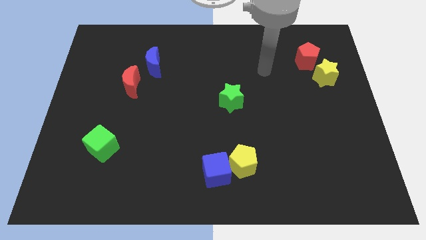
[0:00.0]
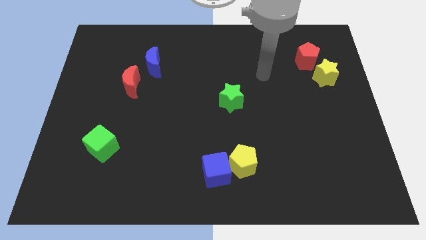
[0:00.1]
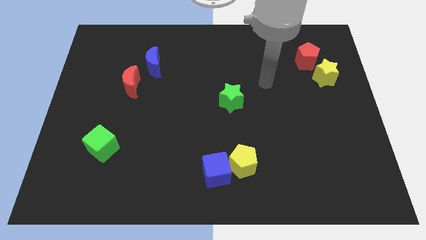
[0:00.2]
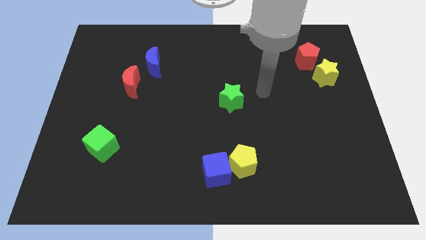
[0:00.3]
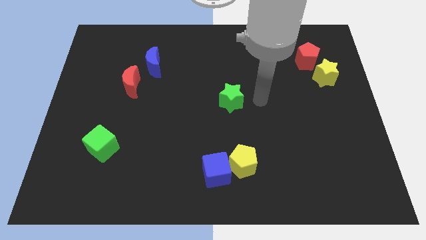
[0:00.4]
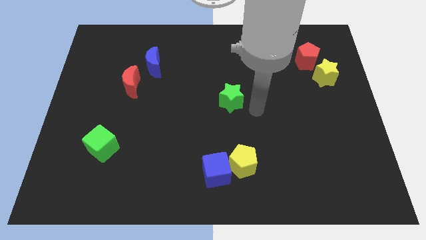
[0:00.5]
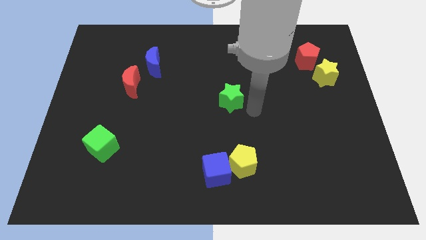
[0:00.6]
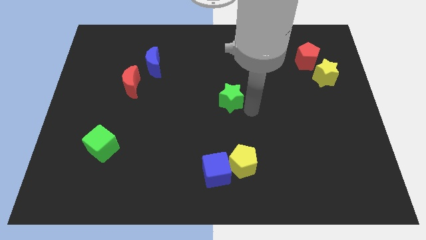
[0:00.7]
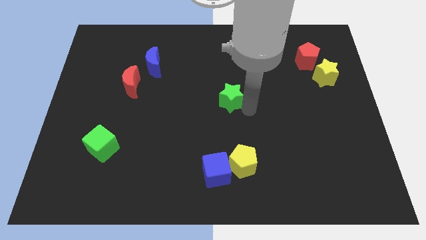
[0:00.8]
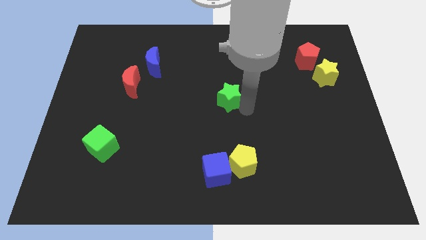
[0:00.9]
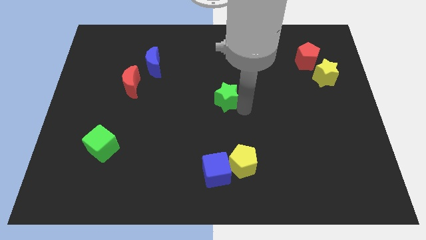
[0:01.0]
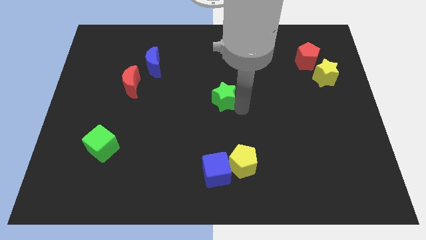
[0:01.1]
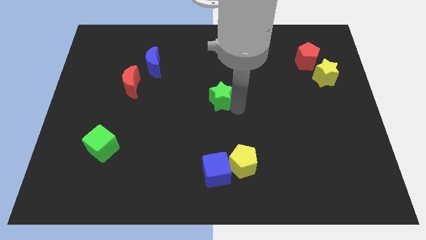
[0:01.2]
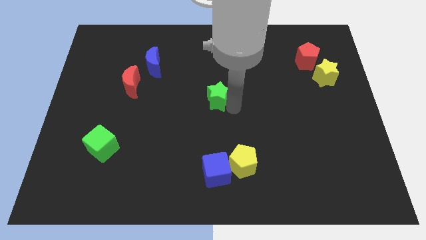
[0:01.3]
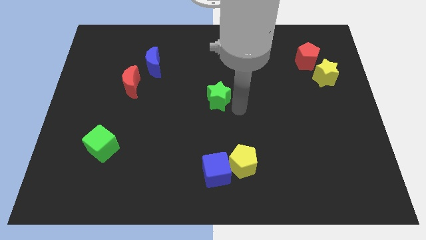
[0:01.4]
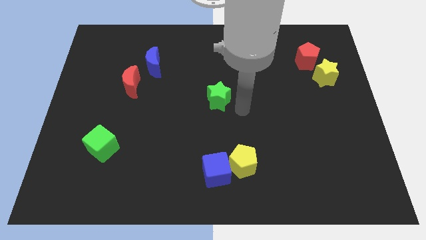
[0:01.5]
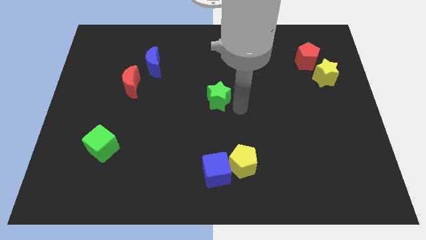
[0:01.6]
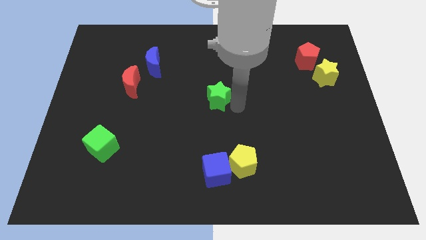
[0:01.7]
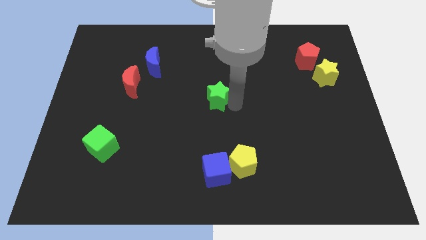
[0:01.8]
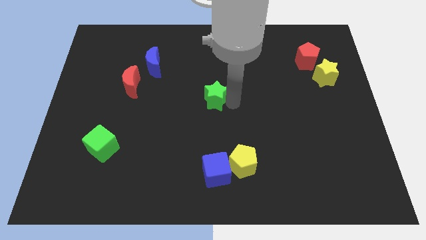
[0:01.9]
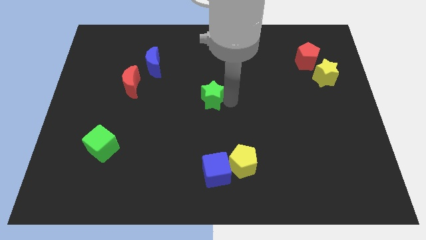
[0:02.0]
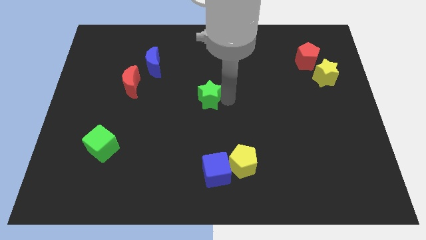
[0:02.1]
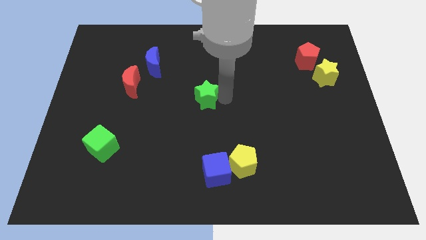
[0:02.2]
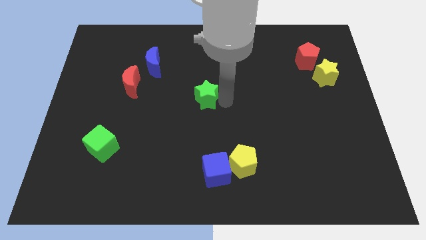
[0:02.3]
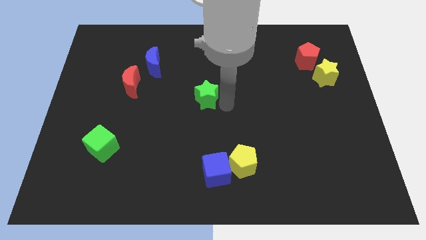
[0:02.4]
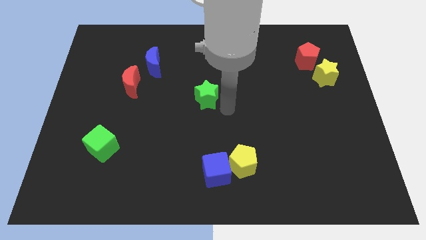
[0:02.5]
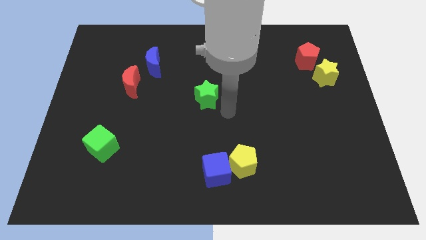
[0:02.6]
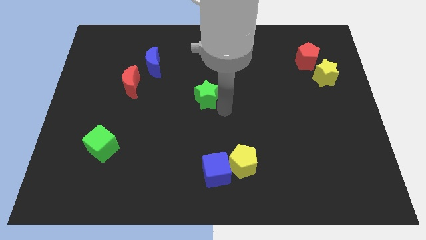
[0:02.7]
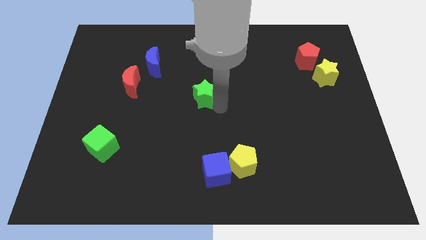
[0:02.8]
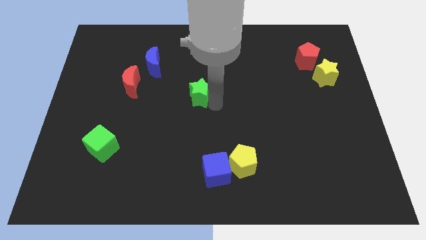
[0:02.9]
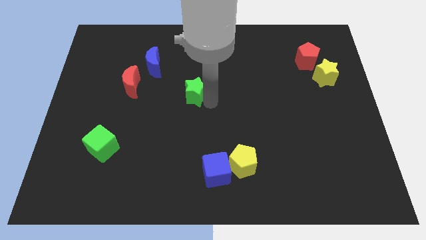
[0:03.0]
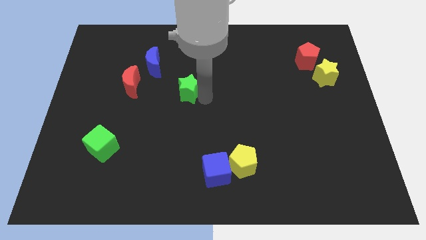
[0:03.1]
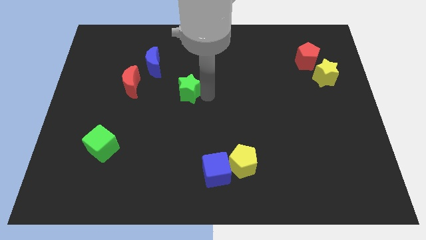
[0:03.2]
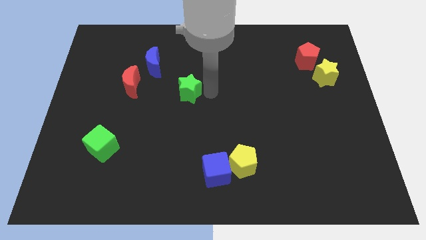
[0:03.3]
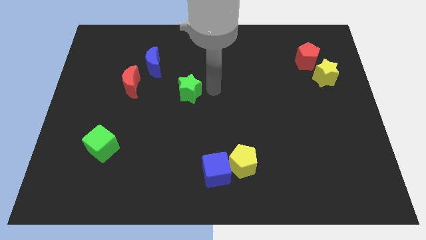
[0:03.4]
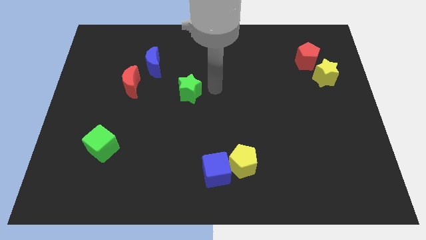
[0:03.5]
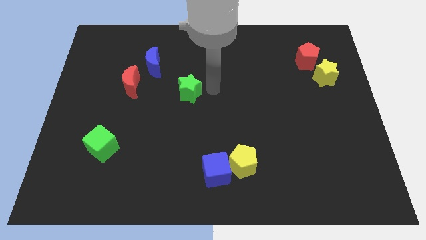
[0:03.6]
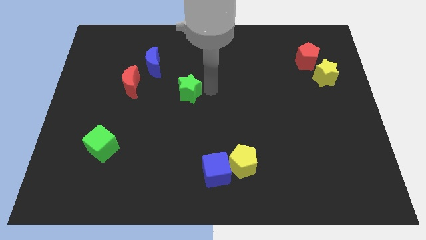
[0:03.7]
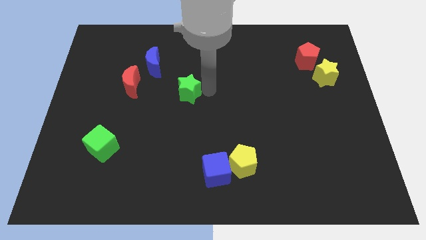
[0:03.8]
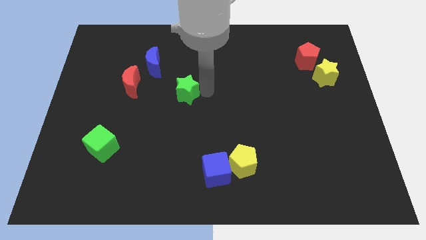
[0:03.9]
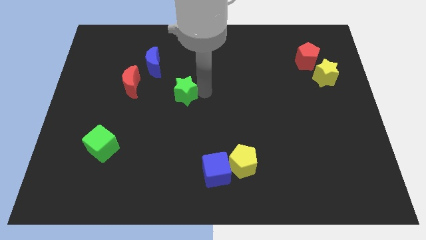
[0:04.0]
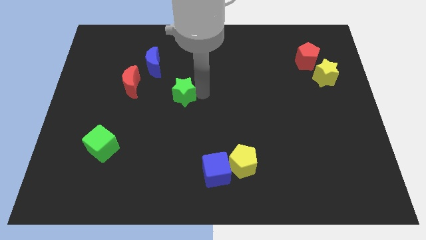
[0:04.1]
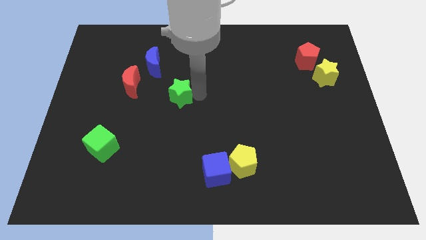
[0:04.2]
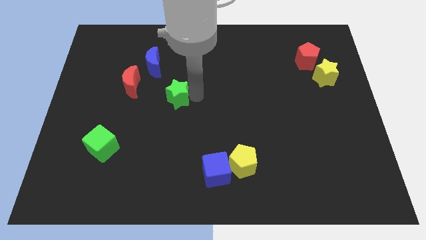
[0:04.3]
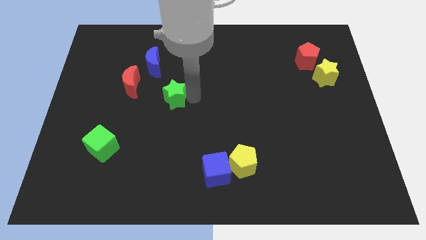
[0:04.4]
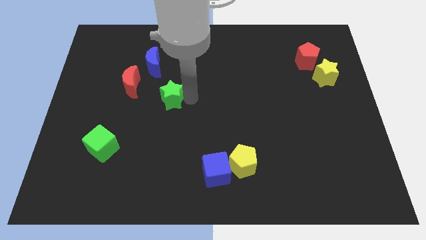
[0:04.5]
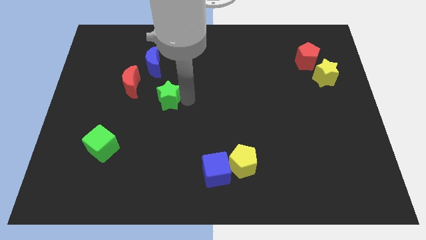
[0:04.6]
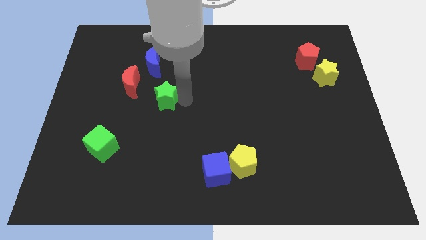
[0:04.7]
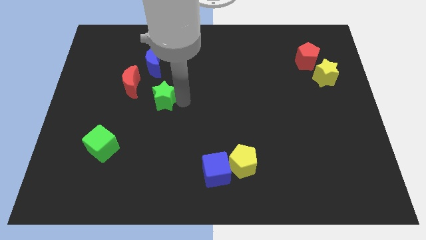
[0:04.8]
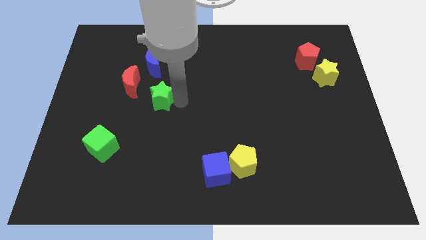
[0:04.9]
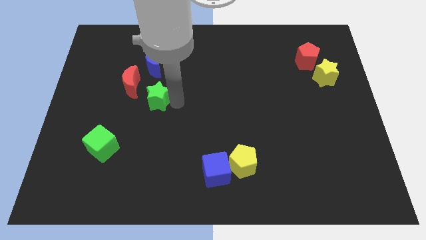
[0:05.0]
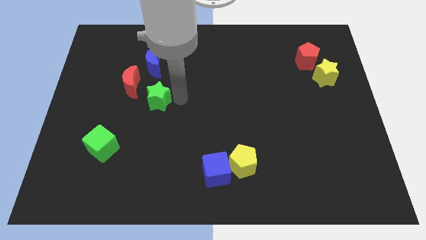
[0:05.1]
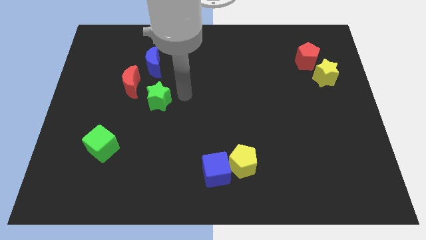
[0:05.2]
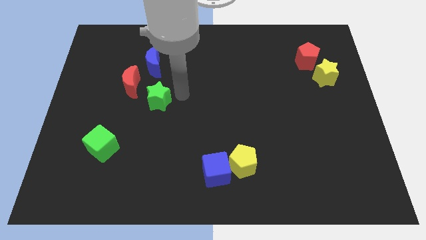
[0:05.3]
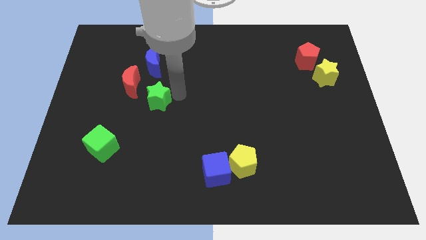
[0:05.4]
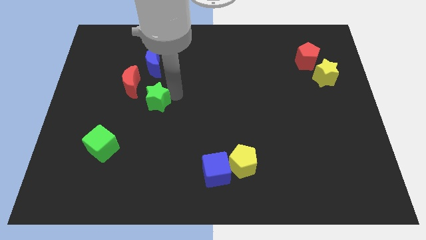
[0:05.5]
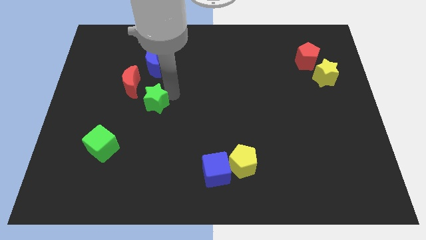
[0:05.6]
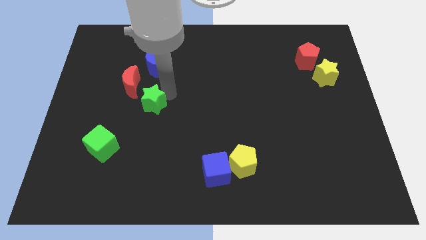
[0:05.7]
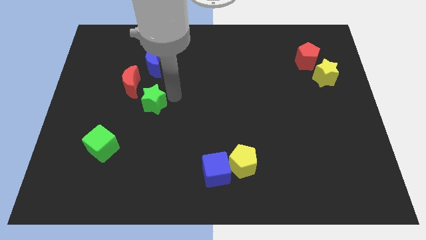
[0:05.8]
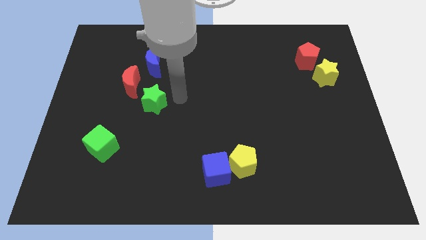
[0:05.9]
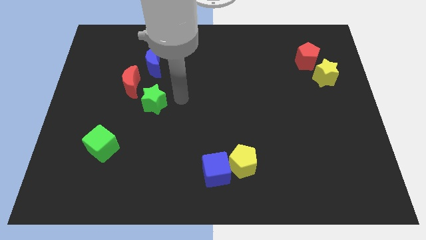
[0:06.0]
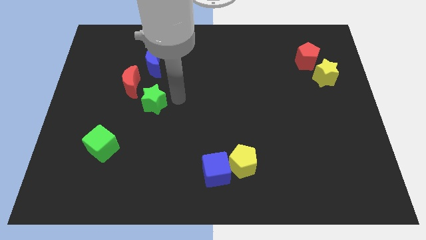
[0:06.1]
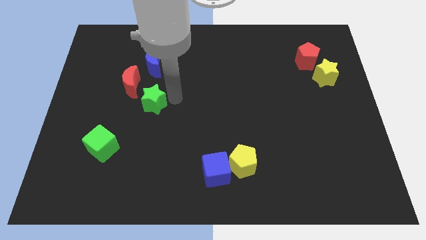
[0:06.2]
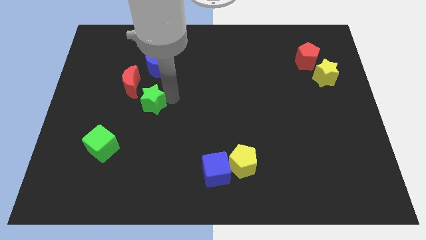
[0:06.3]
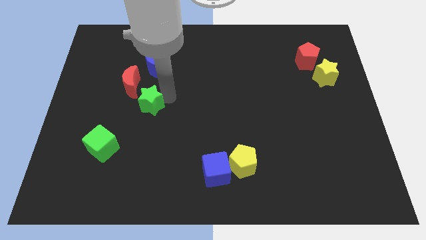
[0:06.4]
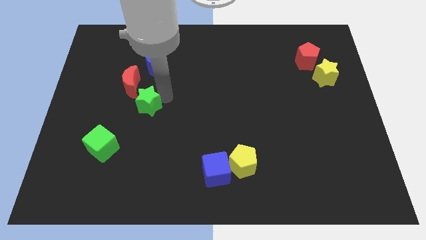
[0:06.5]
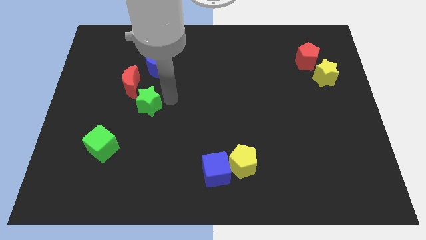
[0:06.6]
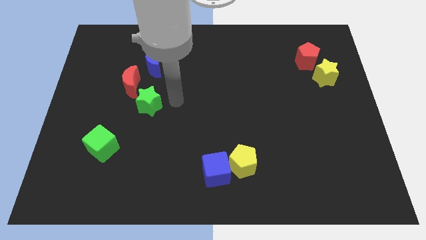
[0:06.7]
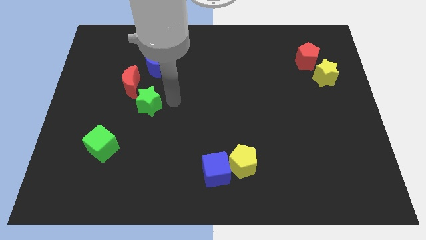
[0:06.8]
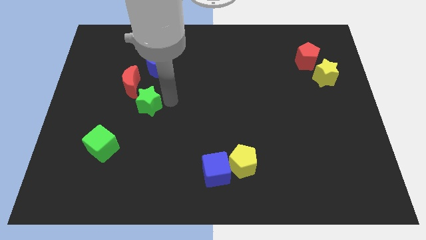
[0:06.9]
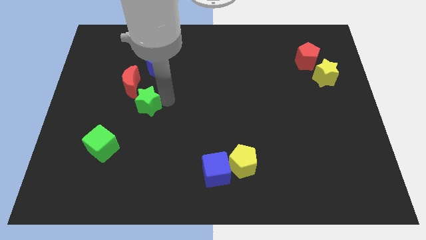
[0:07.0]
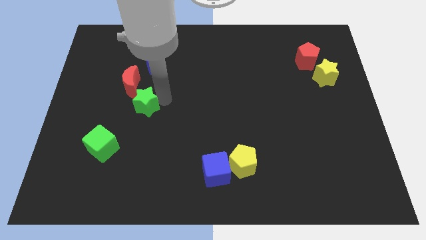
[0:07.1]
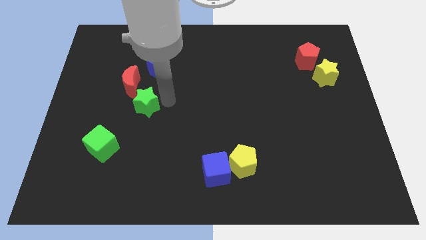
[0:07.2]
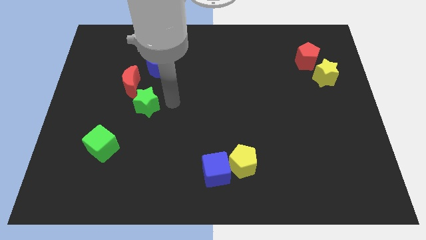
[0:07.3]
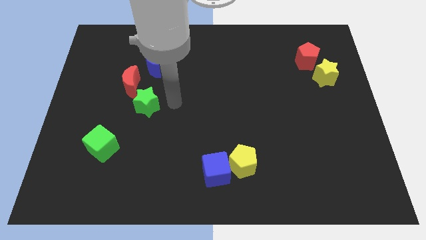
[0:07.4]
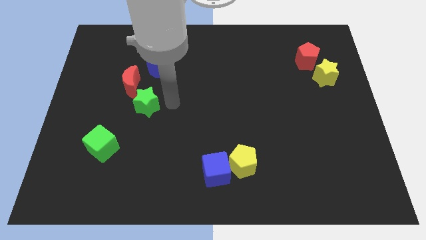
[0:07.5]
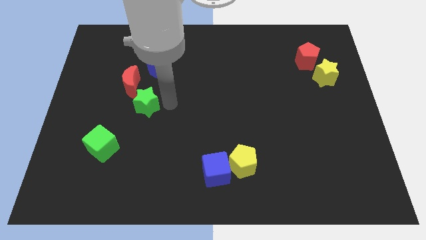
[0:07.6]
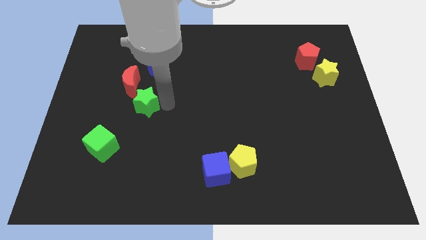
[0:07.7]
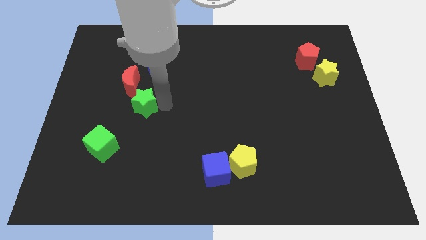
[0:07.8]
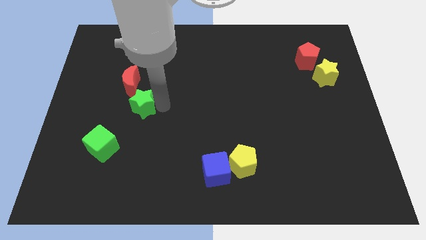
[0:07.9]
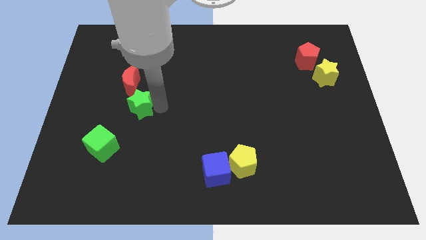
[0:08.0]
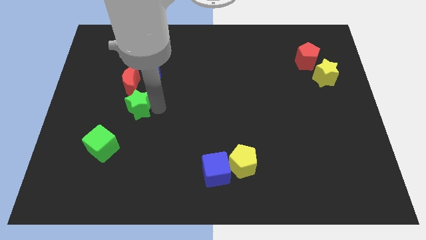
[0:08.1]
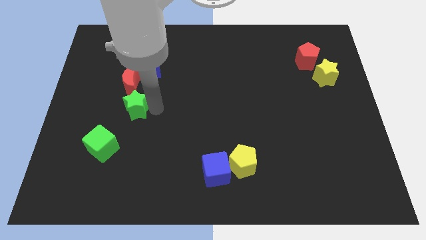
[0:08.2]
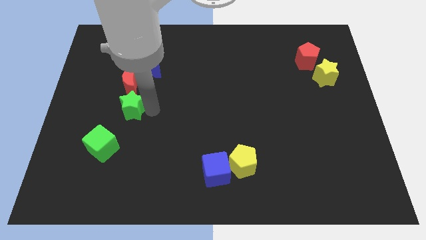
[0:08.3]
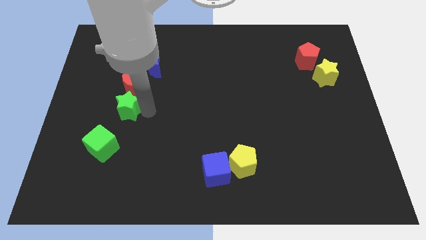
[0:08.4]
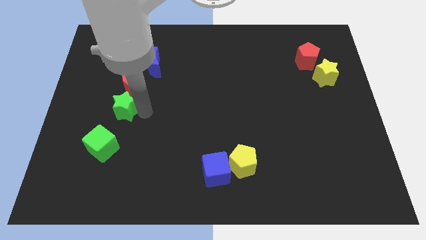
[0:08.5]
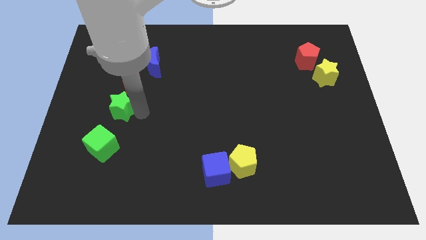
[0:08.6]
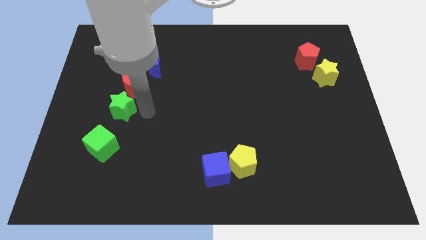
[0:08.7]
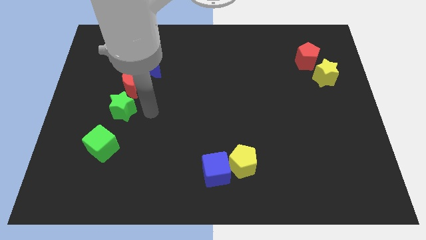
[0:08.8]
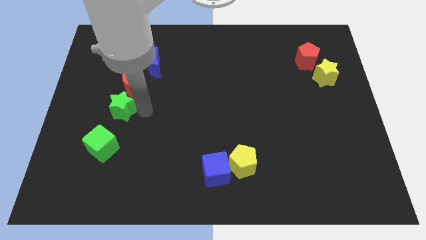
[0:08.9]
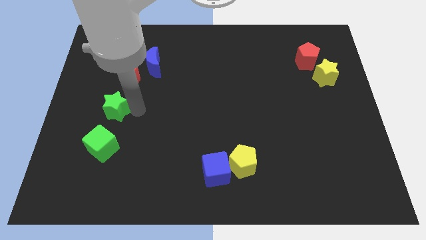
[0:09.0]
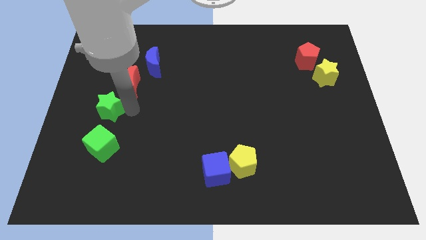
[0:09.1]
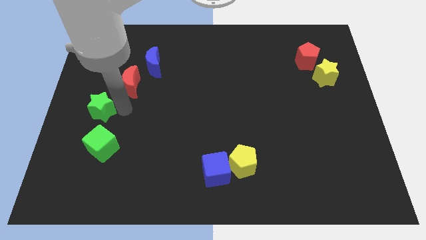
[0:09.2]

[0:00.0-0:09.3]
push the green star to the center left
